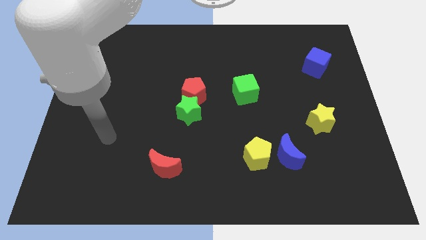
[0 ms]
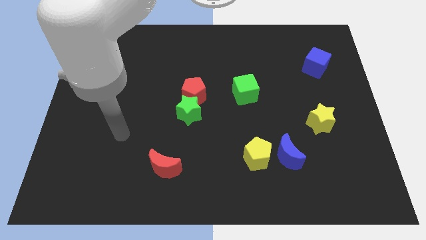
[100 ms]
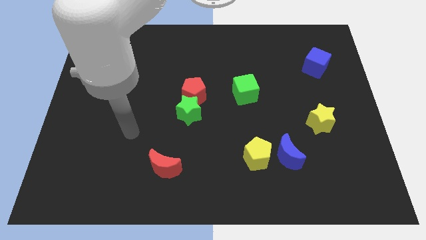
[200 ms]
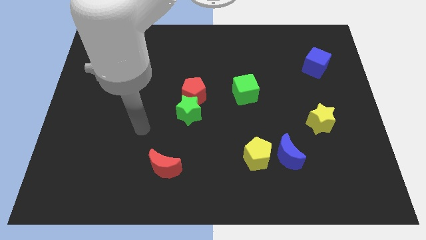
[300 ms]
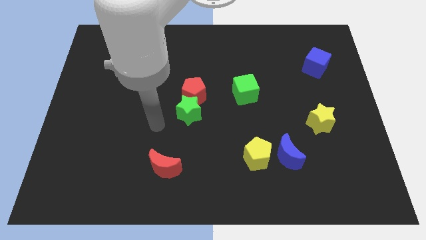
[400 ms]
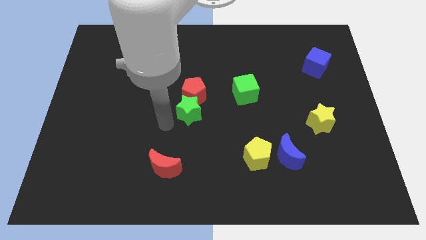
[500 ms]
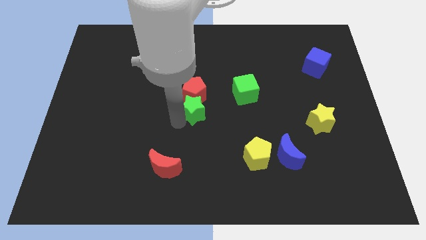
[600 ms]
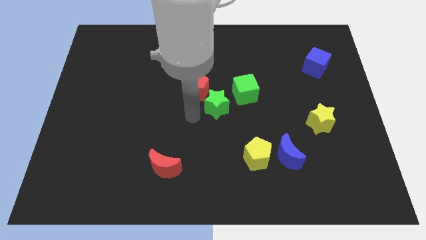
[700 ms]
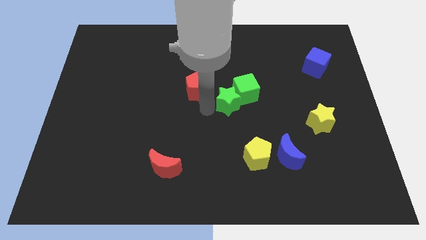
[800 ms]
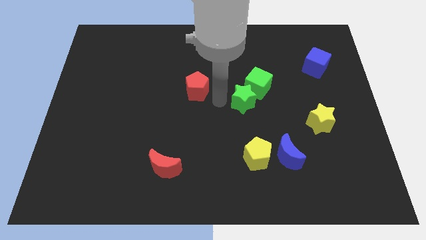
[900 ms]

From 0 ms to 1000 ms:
move the red pentagon away from the green star

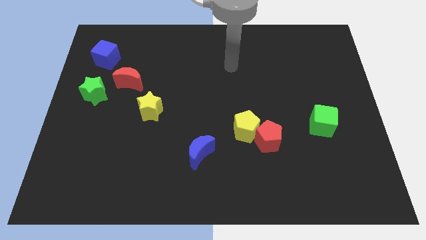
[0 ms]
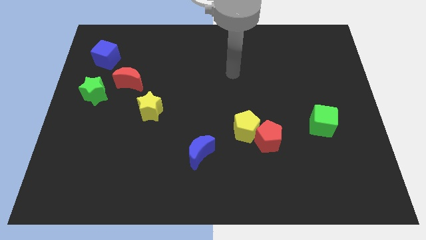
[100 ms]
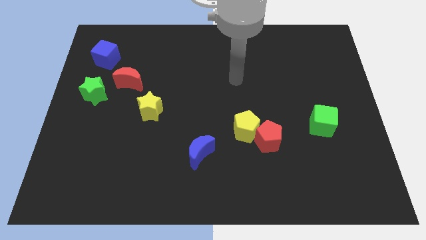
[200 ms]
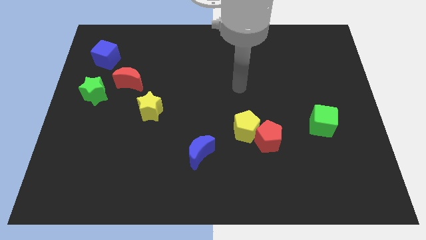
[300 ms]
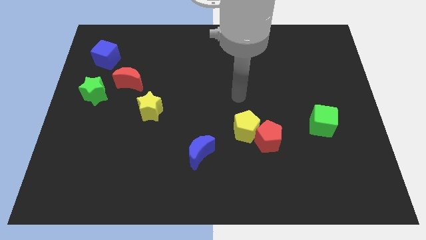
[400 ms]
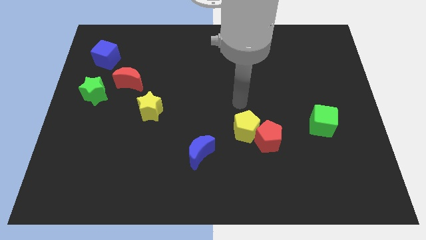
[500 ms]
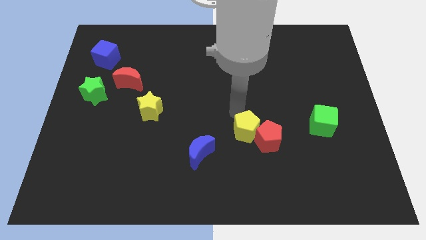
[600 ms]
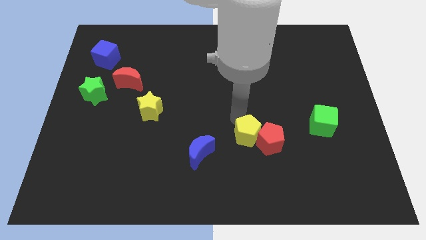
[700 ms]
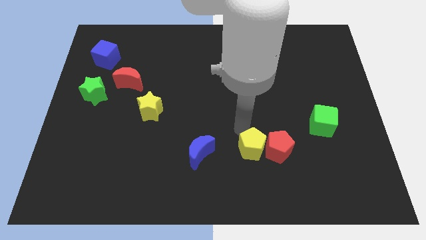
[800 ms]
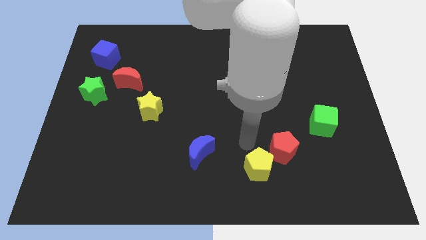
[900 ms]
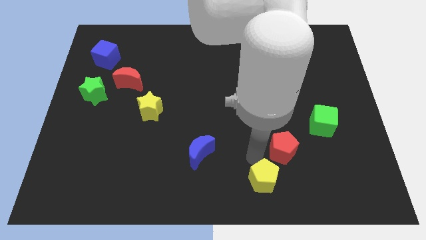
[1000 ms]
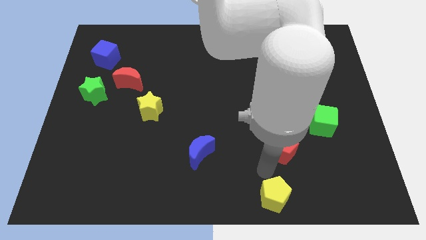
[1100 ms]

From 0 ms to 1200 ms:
move the red pentagon away from the yellow pentagon

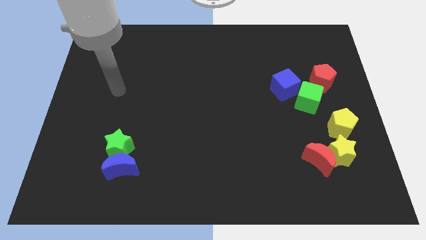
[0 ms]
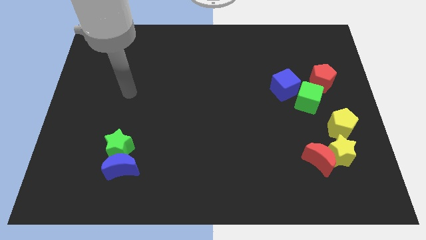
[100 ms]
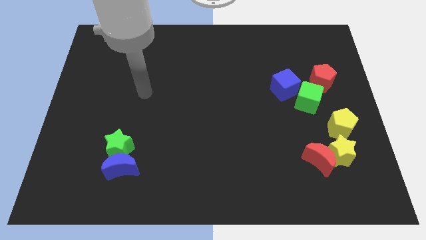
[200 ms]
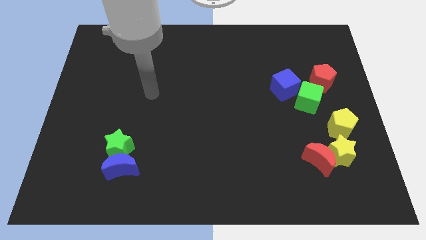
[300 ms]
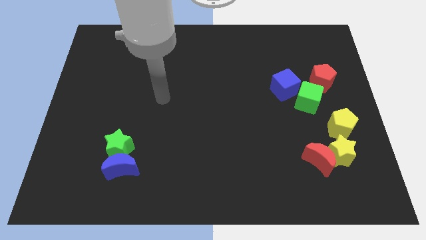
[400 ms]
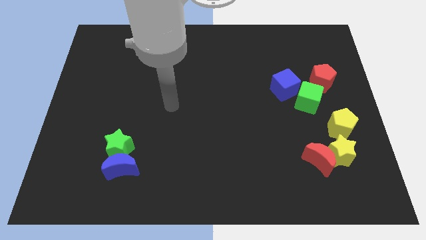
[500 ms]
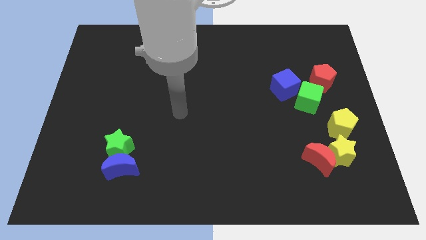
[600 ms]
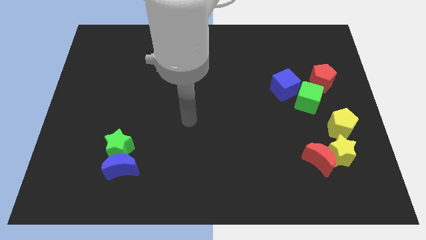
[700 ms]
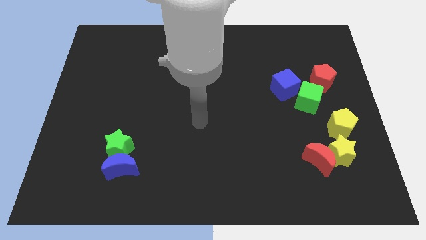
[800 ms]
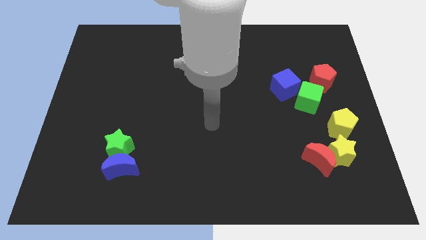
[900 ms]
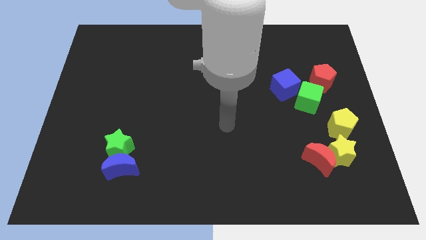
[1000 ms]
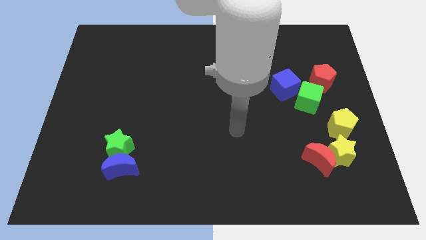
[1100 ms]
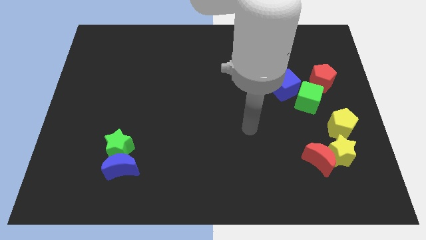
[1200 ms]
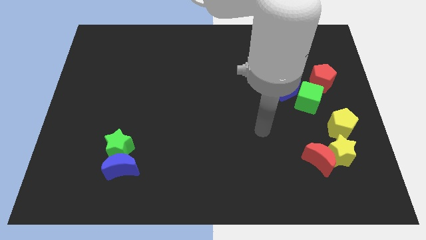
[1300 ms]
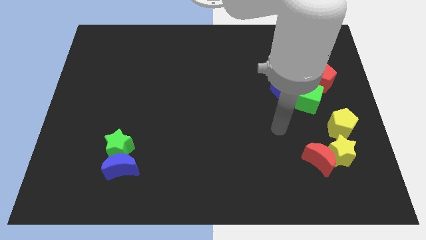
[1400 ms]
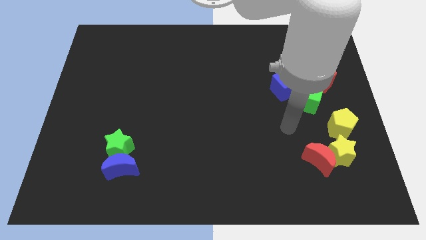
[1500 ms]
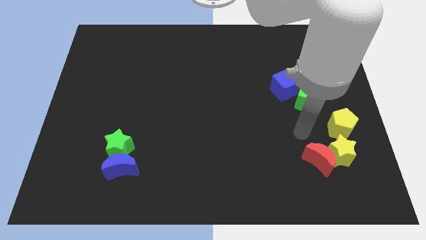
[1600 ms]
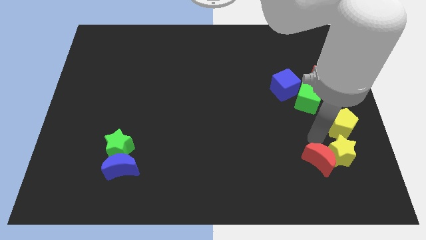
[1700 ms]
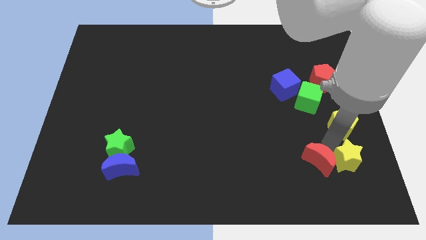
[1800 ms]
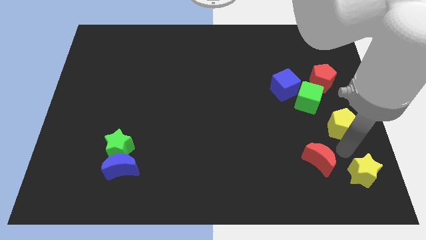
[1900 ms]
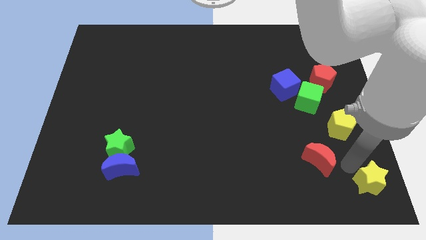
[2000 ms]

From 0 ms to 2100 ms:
pull the red moon apart from the yellow star

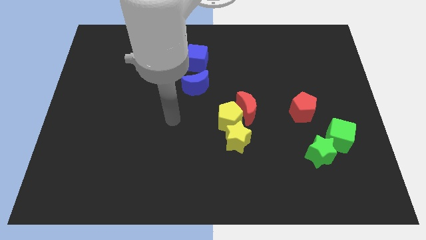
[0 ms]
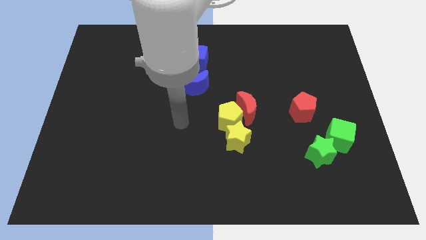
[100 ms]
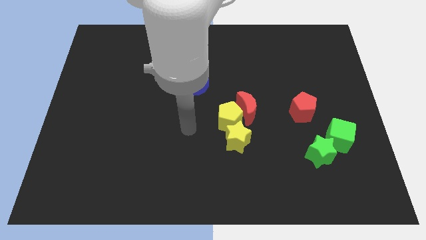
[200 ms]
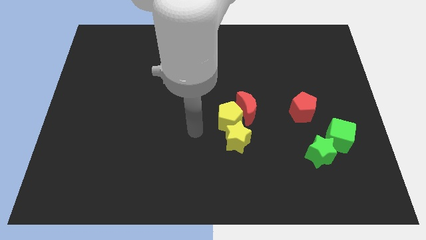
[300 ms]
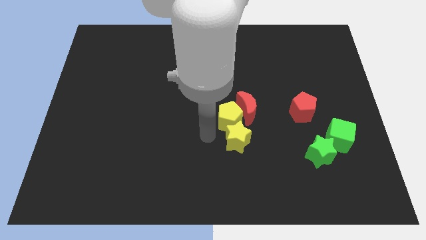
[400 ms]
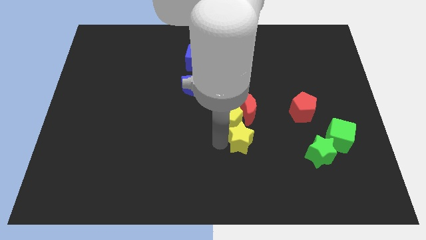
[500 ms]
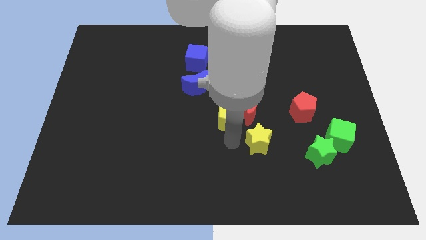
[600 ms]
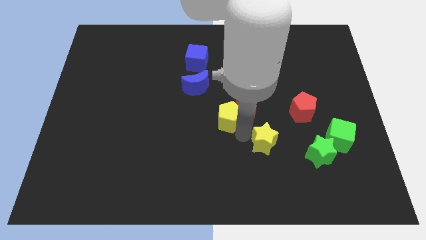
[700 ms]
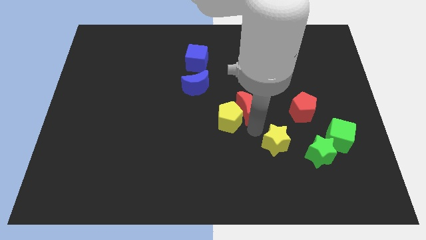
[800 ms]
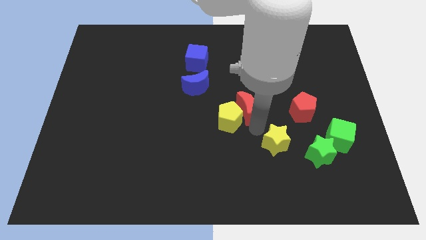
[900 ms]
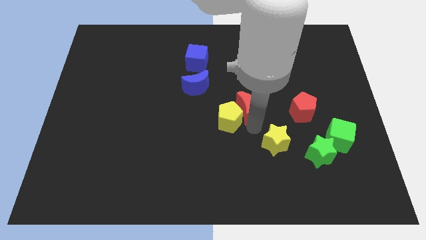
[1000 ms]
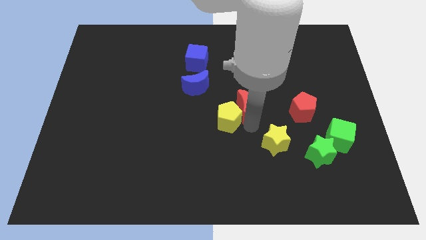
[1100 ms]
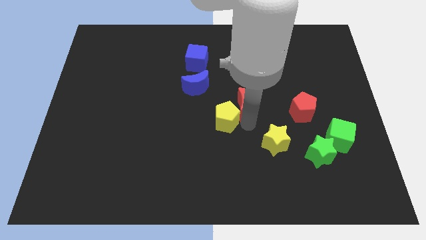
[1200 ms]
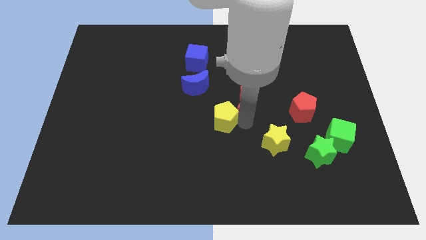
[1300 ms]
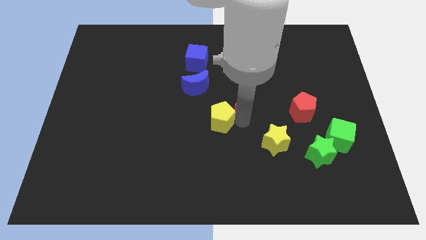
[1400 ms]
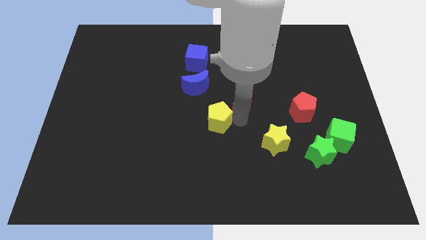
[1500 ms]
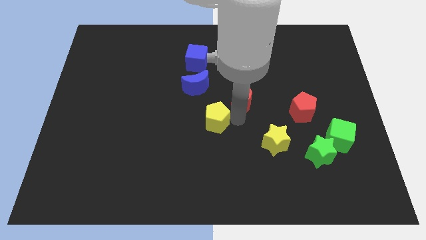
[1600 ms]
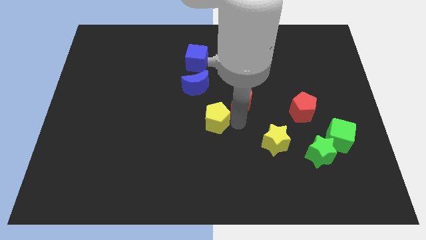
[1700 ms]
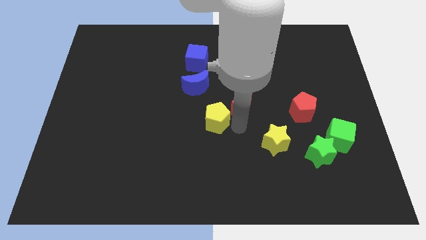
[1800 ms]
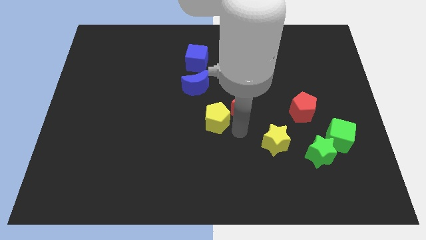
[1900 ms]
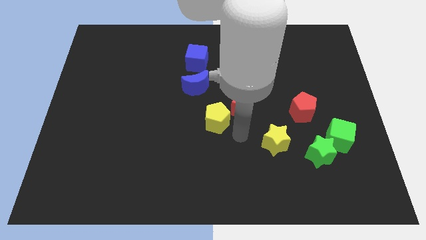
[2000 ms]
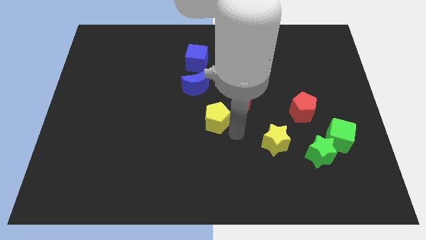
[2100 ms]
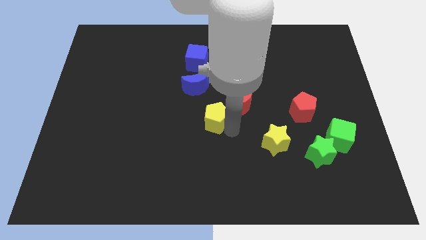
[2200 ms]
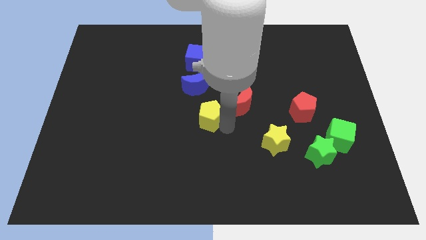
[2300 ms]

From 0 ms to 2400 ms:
move the yellow pentagon away from the red moon and yellow star

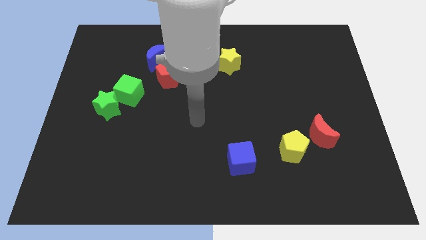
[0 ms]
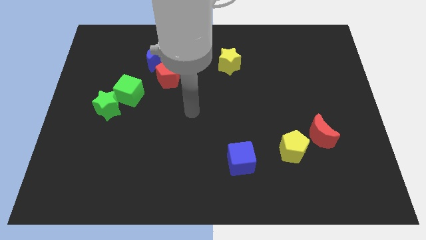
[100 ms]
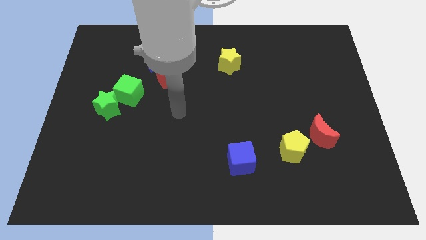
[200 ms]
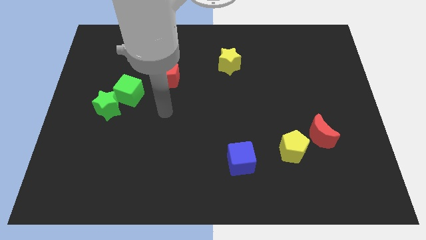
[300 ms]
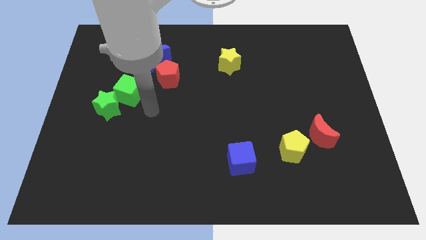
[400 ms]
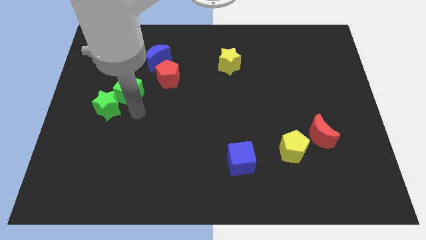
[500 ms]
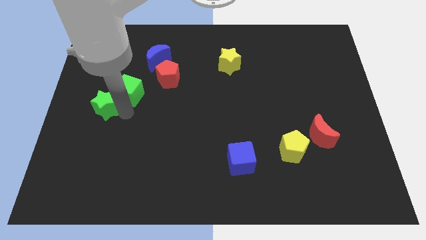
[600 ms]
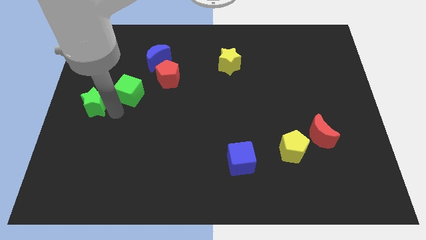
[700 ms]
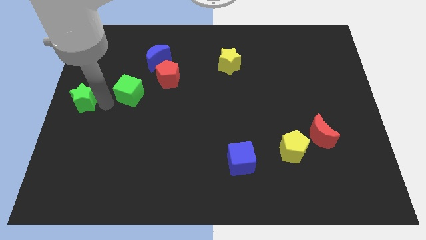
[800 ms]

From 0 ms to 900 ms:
pull the green cube apart from the green star

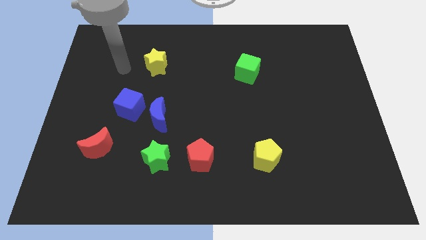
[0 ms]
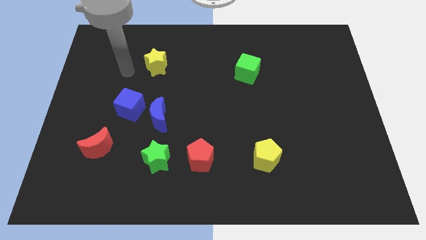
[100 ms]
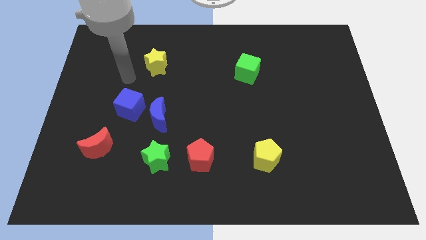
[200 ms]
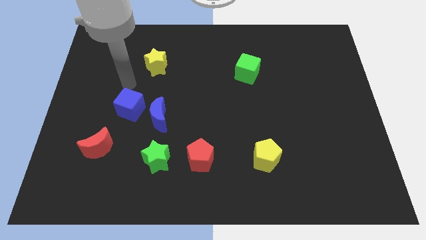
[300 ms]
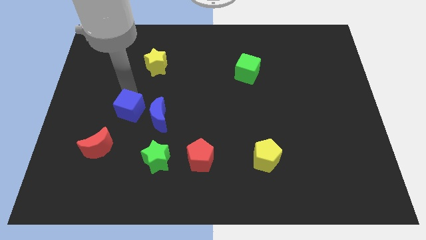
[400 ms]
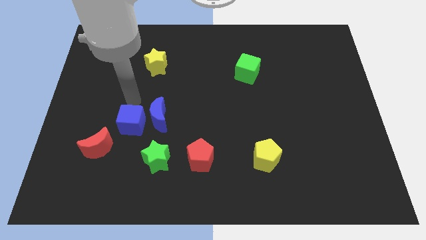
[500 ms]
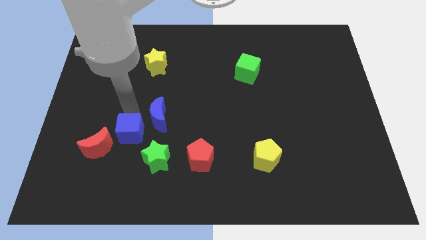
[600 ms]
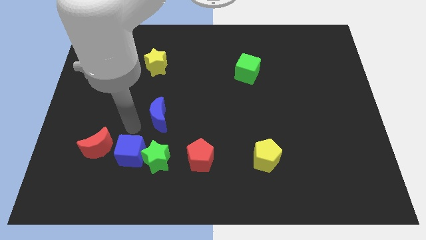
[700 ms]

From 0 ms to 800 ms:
move the blue moon away from the blue cube

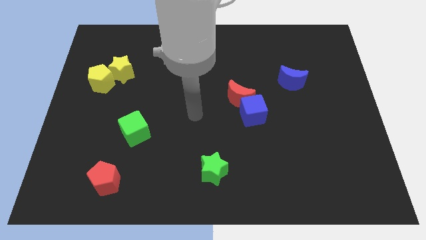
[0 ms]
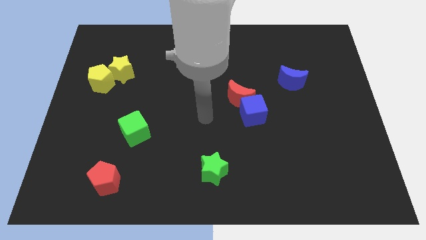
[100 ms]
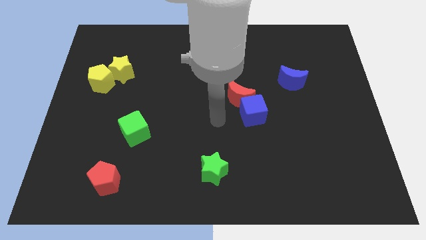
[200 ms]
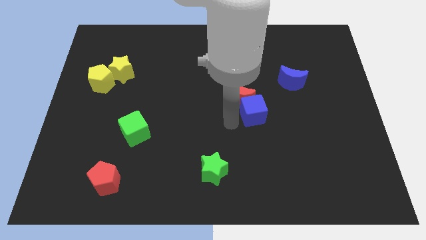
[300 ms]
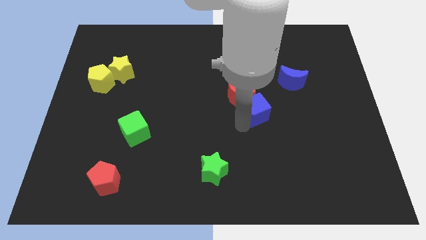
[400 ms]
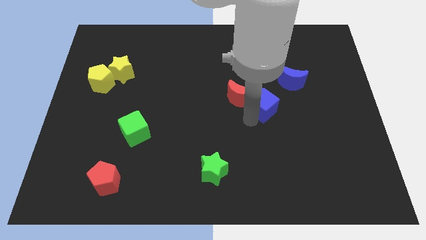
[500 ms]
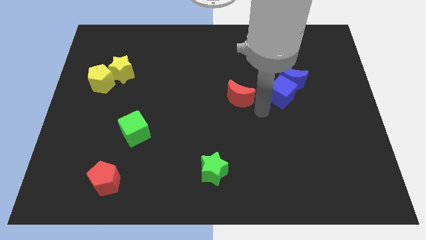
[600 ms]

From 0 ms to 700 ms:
separate the red moon from the blue cube

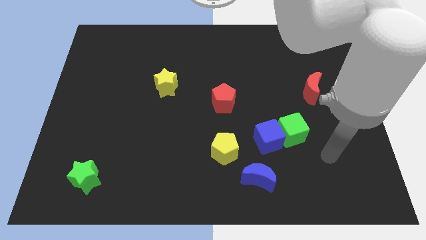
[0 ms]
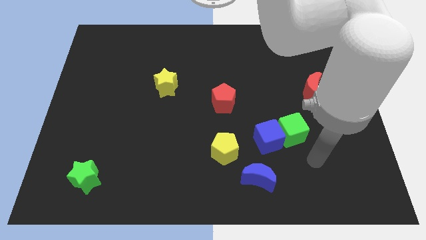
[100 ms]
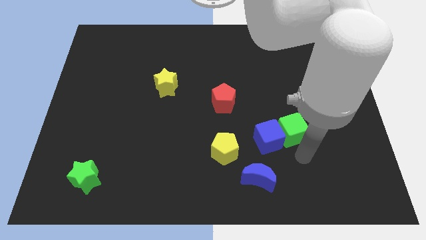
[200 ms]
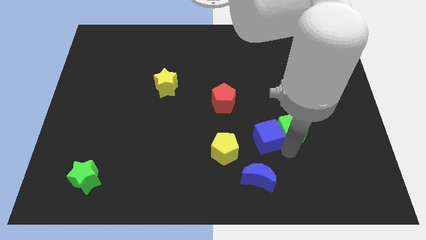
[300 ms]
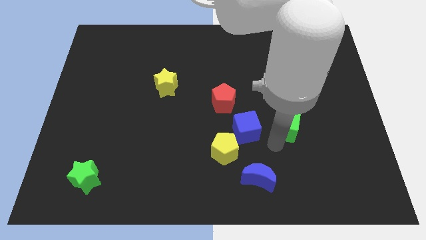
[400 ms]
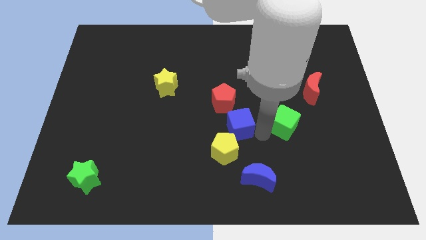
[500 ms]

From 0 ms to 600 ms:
pull the green cube apart from the blue cube
